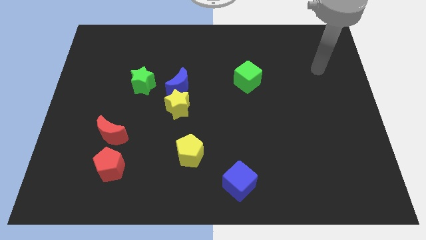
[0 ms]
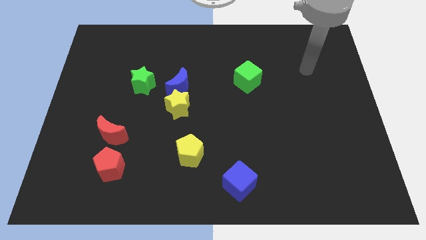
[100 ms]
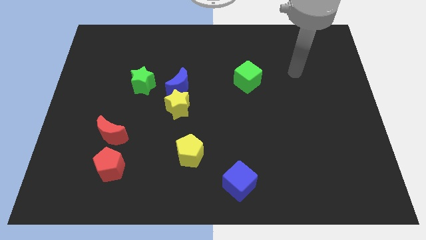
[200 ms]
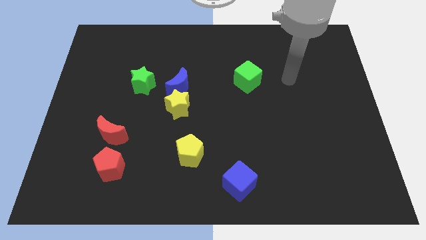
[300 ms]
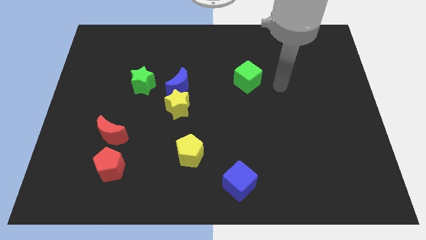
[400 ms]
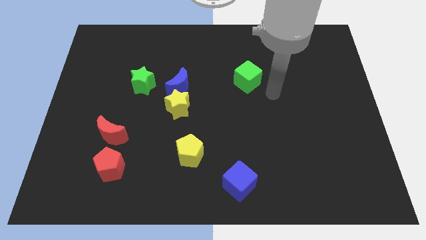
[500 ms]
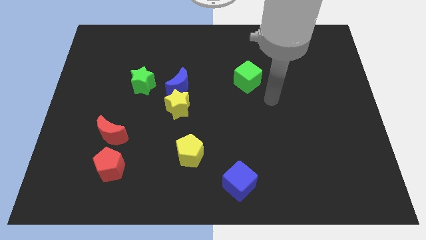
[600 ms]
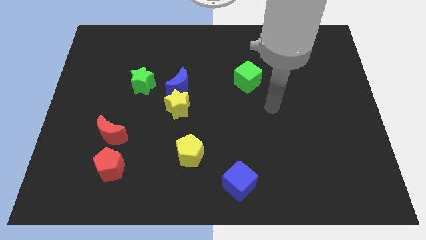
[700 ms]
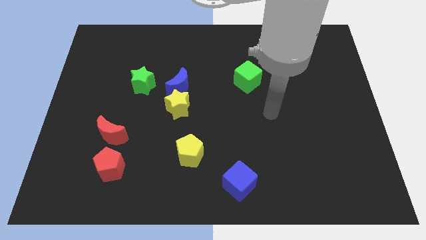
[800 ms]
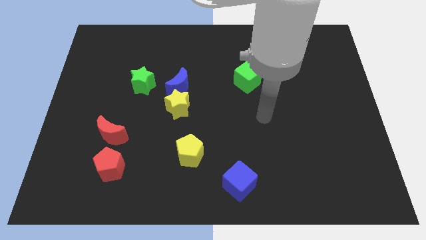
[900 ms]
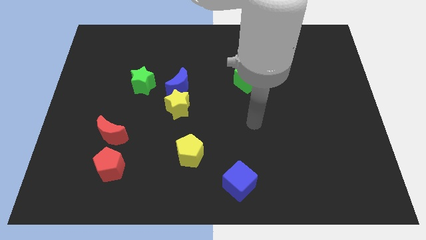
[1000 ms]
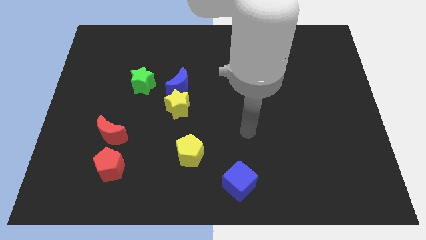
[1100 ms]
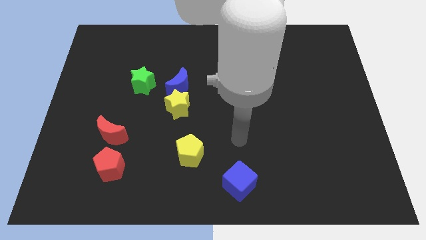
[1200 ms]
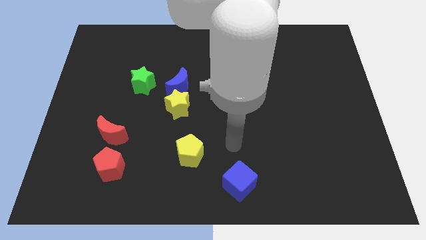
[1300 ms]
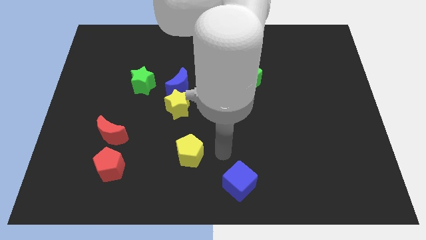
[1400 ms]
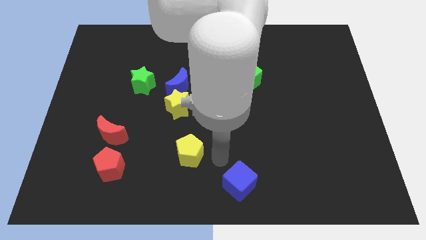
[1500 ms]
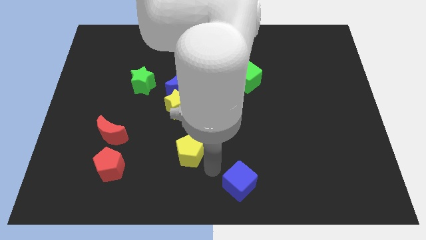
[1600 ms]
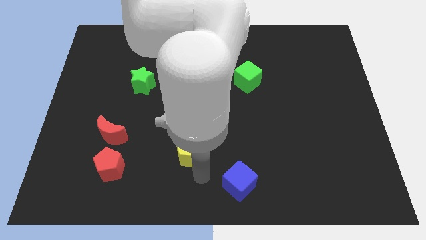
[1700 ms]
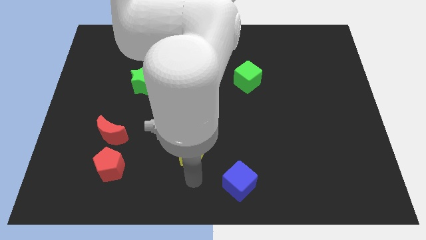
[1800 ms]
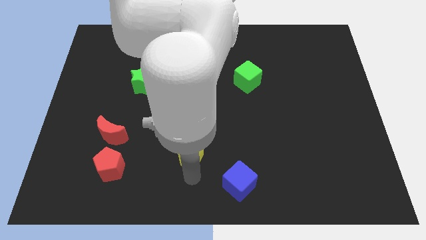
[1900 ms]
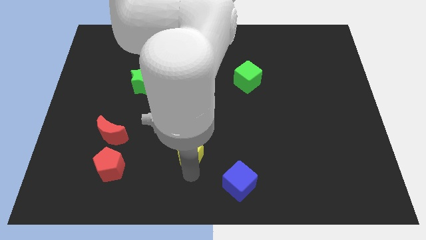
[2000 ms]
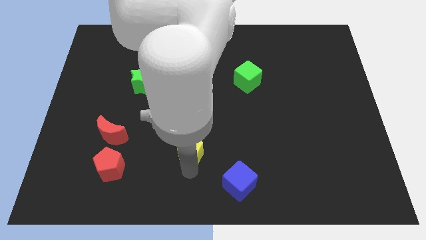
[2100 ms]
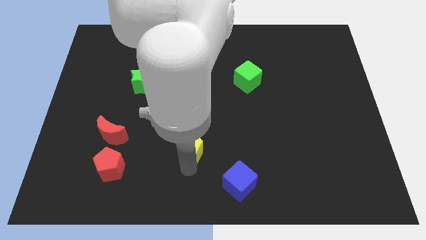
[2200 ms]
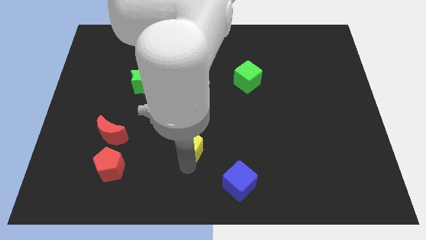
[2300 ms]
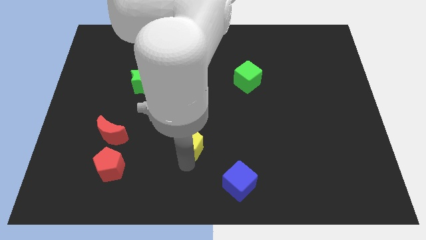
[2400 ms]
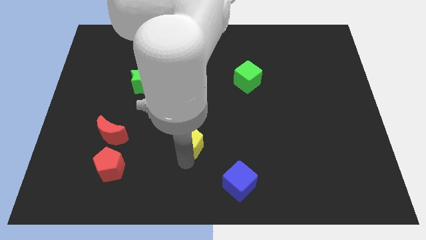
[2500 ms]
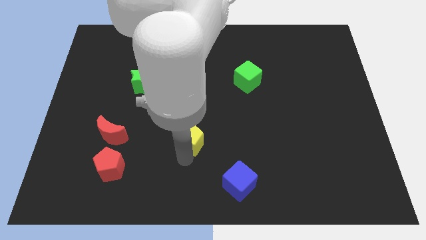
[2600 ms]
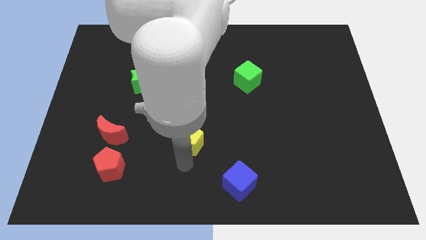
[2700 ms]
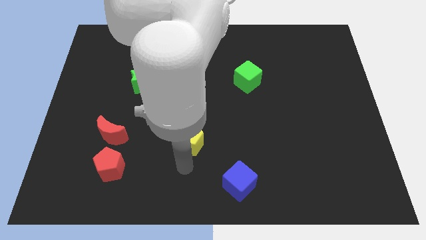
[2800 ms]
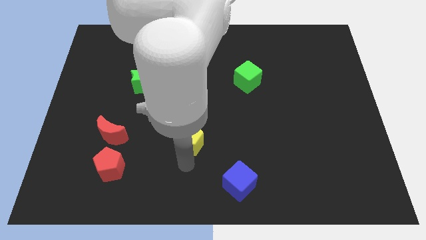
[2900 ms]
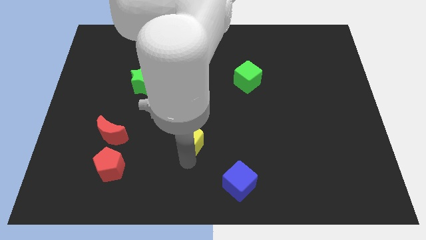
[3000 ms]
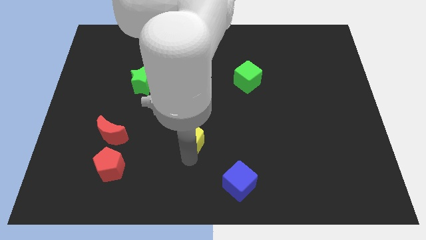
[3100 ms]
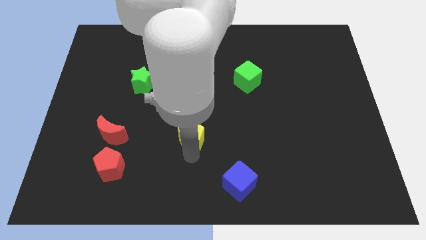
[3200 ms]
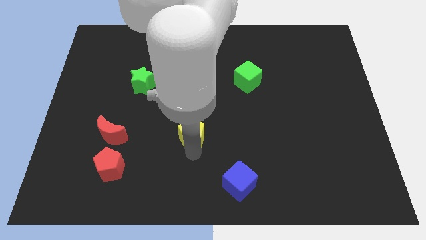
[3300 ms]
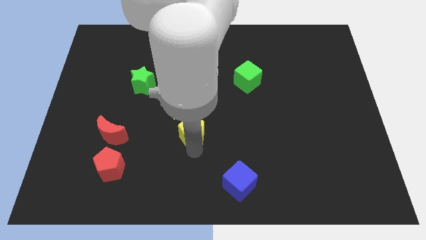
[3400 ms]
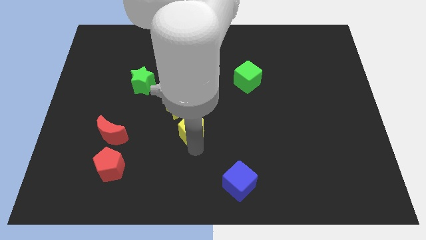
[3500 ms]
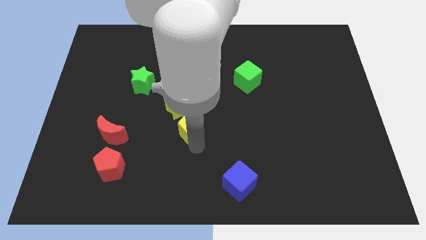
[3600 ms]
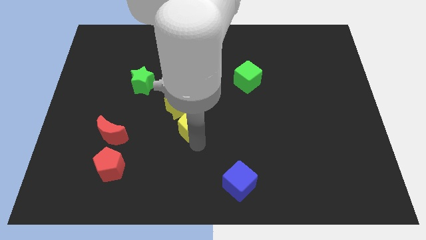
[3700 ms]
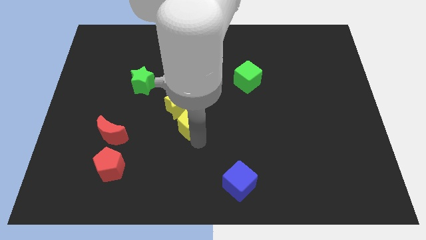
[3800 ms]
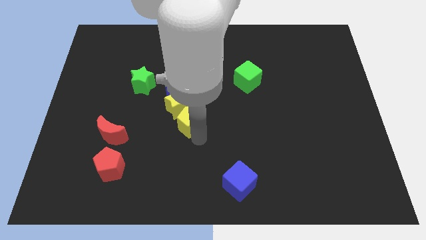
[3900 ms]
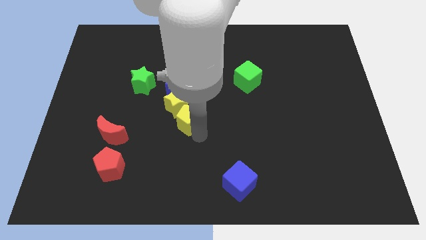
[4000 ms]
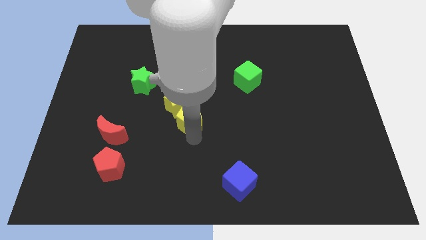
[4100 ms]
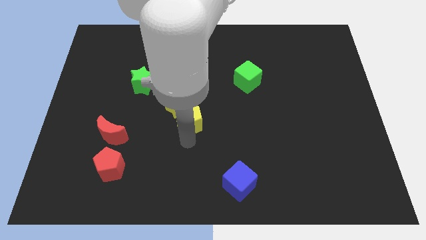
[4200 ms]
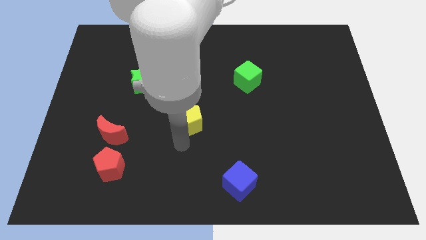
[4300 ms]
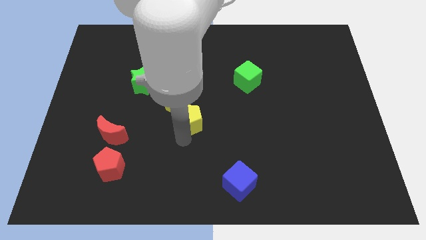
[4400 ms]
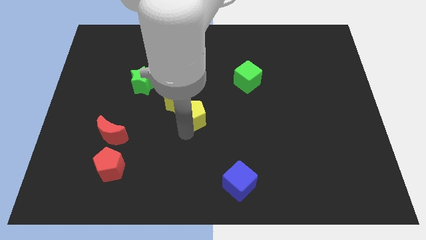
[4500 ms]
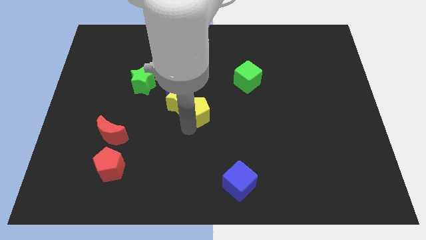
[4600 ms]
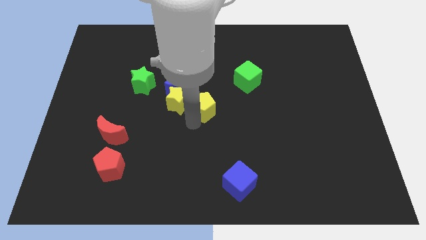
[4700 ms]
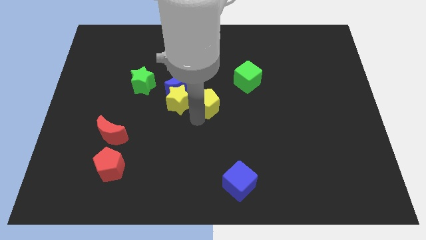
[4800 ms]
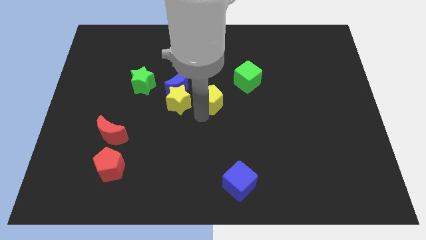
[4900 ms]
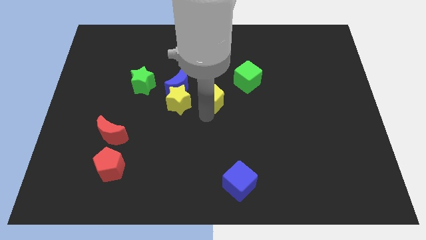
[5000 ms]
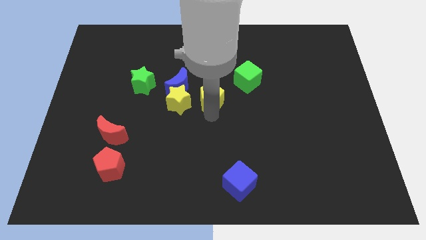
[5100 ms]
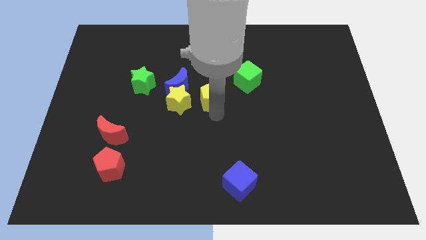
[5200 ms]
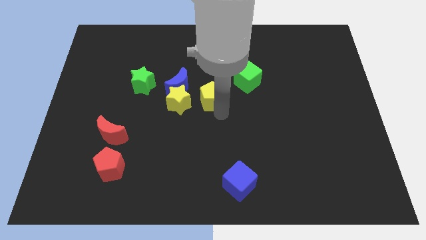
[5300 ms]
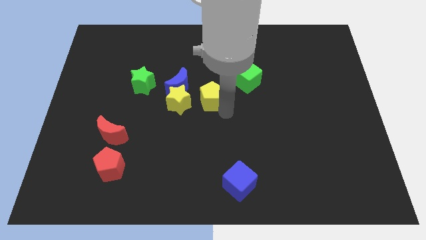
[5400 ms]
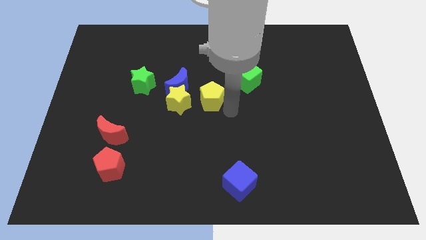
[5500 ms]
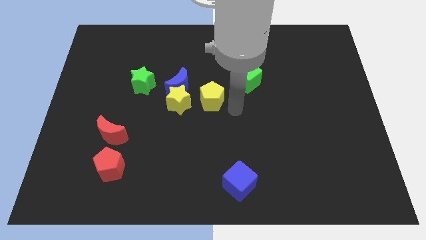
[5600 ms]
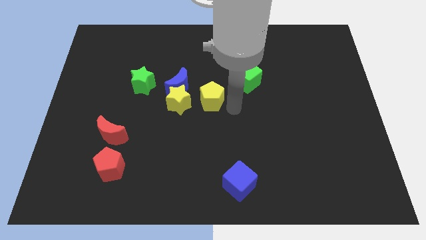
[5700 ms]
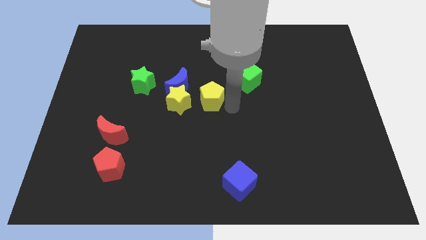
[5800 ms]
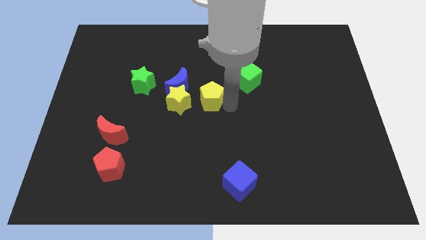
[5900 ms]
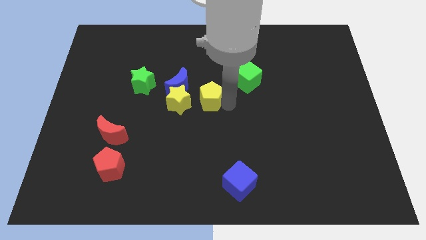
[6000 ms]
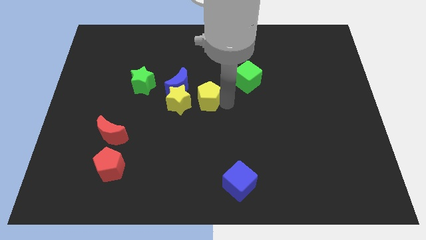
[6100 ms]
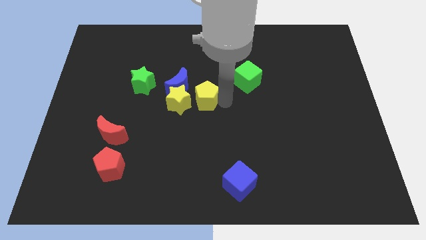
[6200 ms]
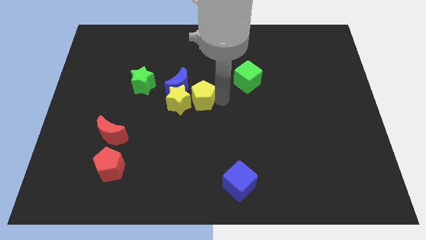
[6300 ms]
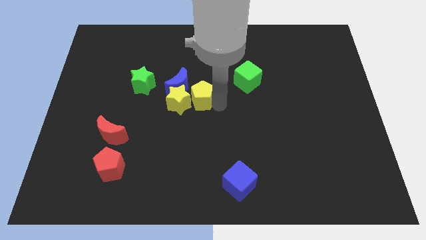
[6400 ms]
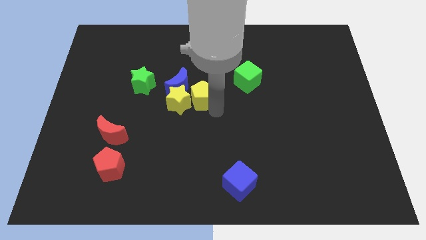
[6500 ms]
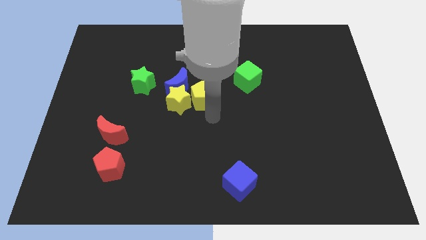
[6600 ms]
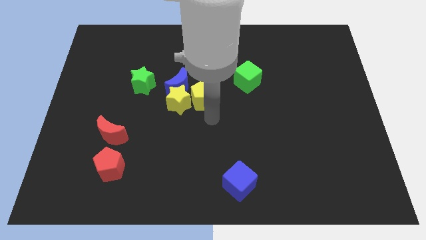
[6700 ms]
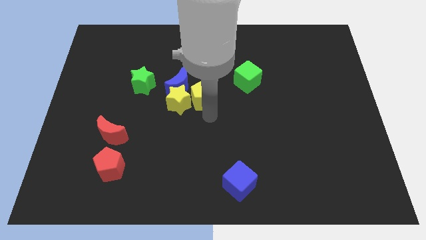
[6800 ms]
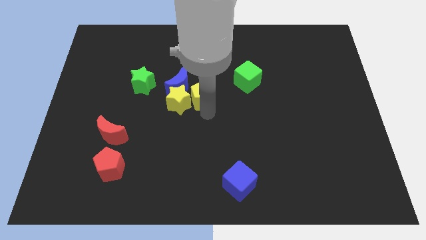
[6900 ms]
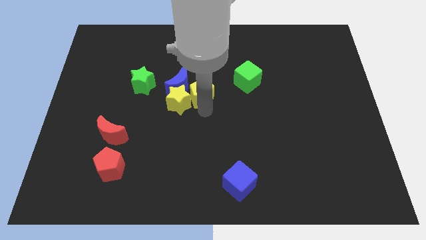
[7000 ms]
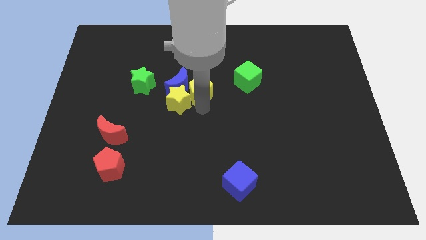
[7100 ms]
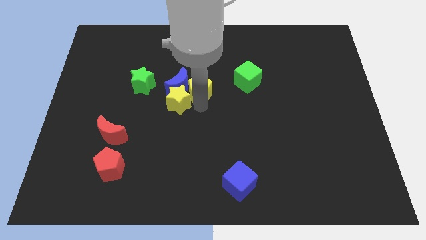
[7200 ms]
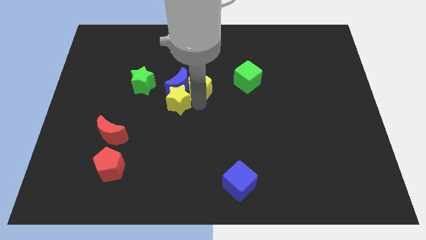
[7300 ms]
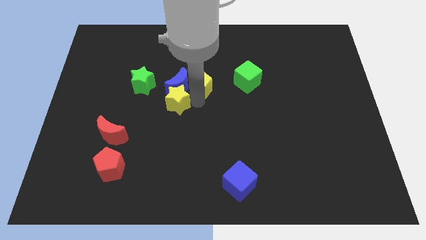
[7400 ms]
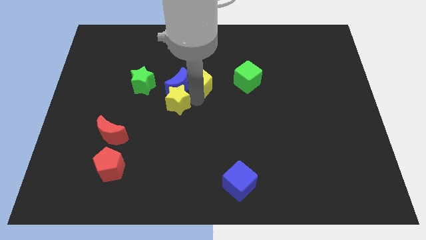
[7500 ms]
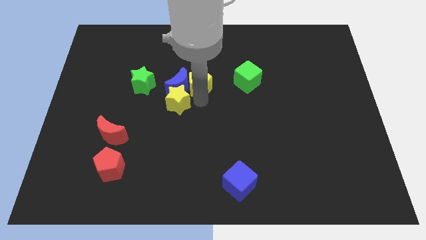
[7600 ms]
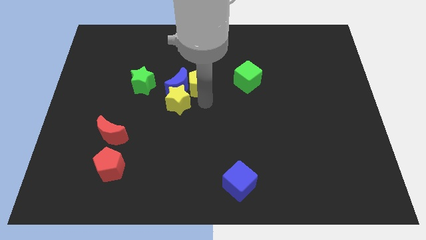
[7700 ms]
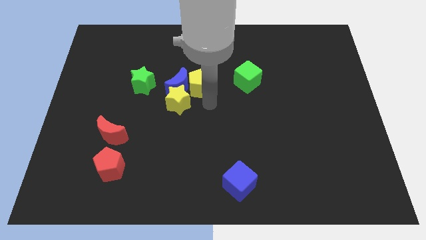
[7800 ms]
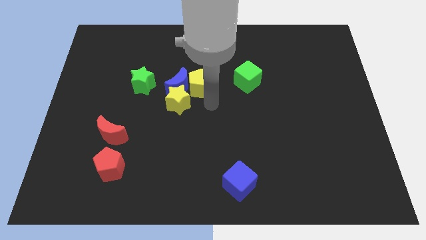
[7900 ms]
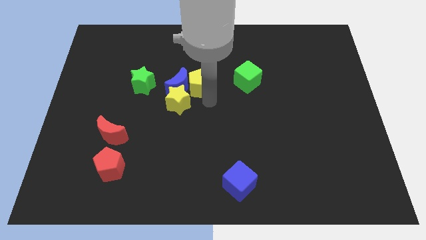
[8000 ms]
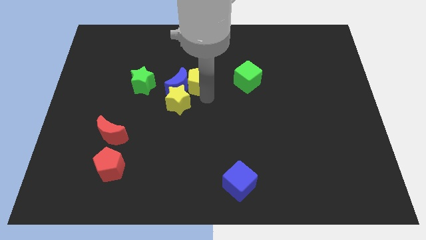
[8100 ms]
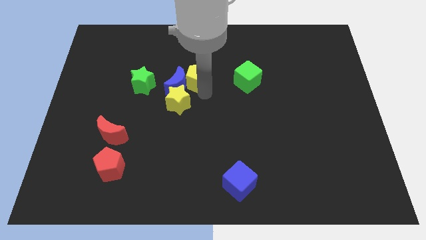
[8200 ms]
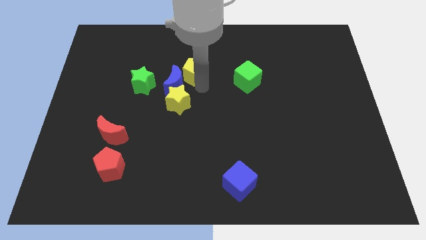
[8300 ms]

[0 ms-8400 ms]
push the yellow pentagon above the blue moon
